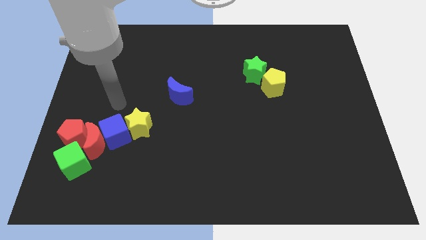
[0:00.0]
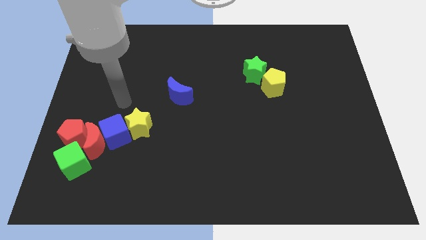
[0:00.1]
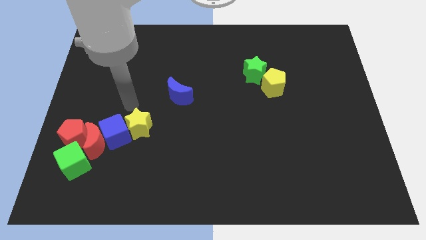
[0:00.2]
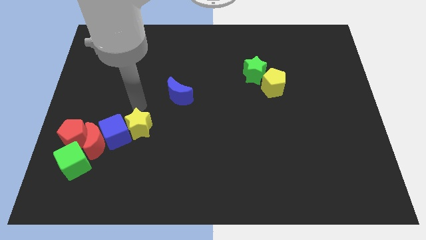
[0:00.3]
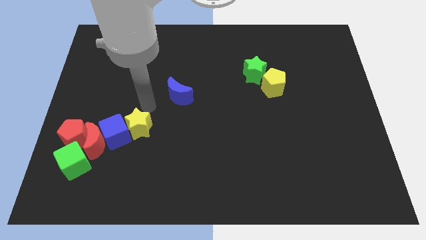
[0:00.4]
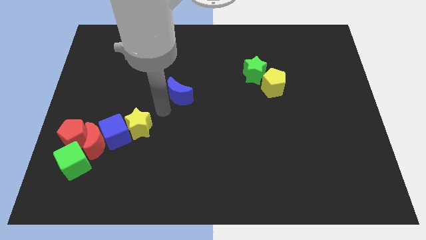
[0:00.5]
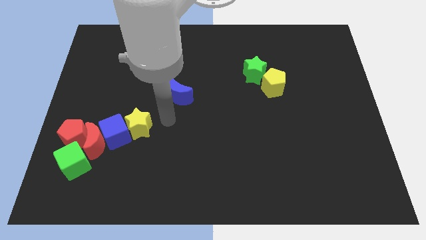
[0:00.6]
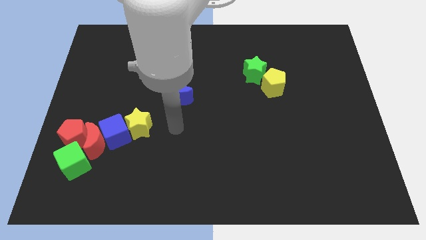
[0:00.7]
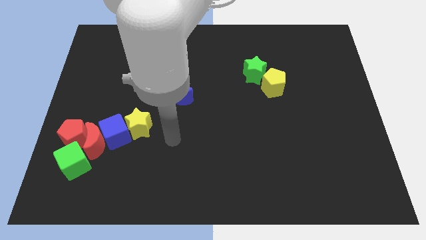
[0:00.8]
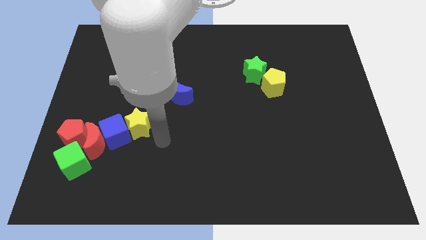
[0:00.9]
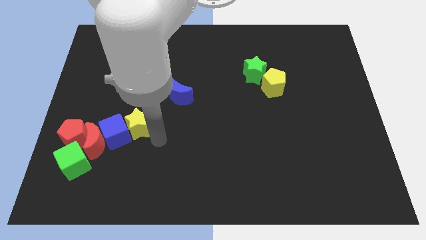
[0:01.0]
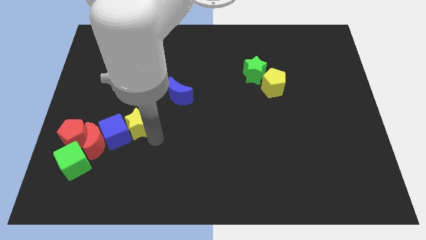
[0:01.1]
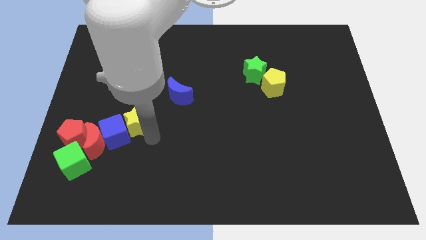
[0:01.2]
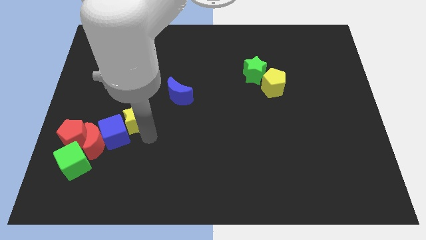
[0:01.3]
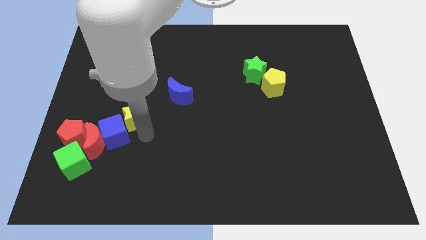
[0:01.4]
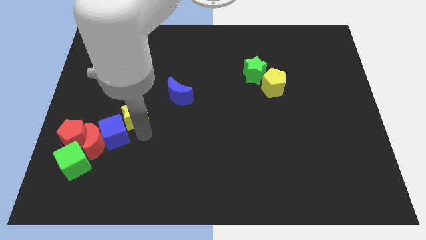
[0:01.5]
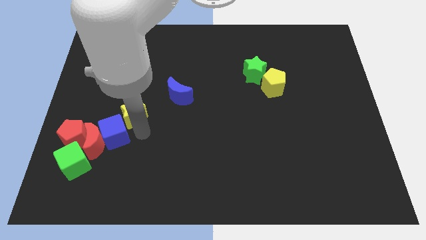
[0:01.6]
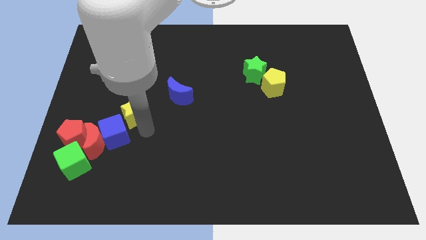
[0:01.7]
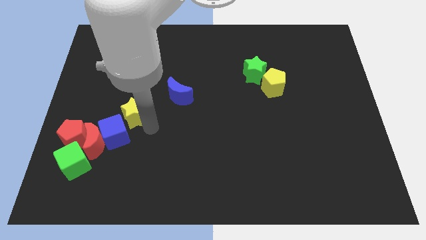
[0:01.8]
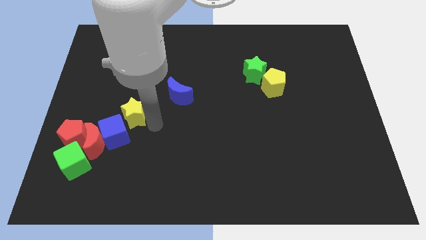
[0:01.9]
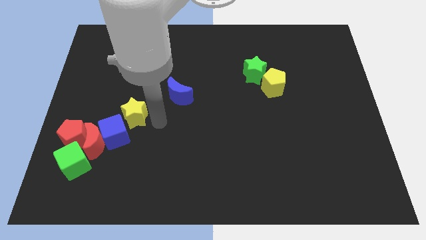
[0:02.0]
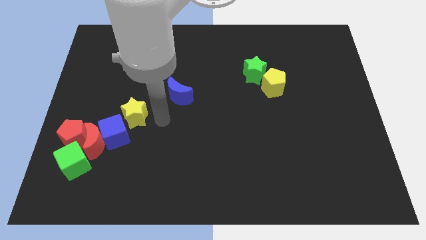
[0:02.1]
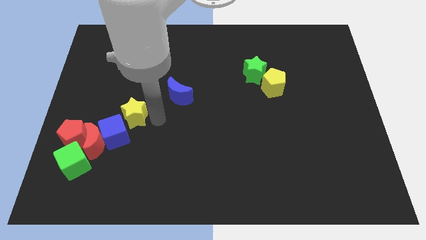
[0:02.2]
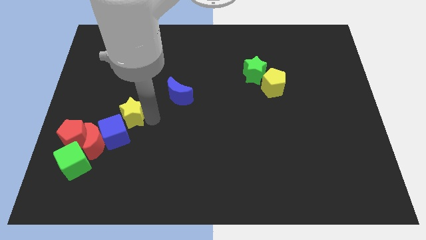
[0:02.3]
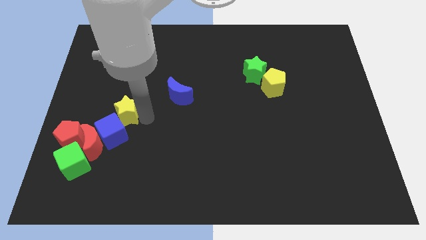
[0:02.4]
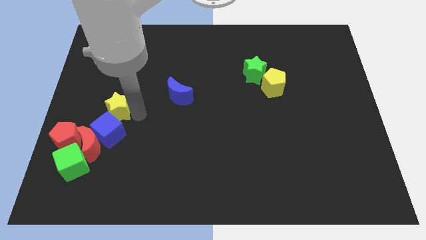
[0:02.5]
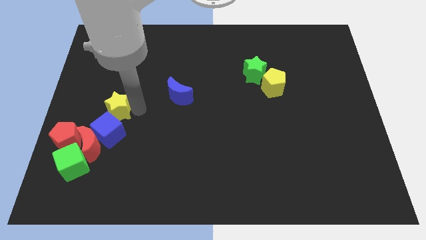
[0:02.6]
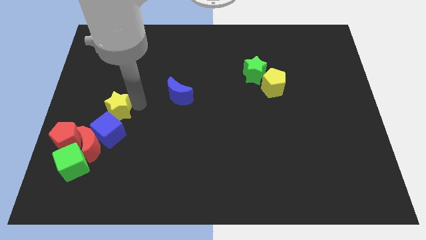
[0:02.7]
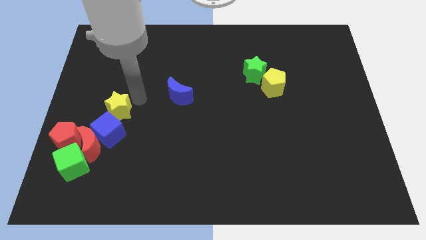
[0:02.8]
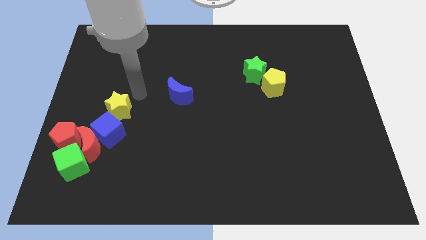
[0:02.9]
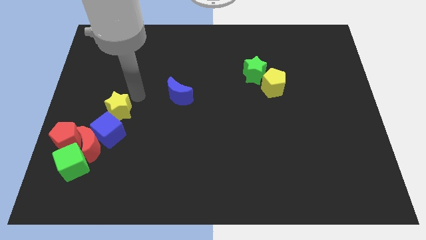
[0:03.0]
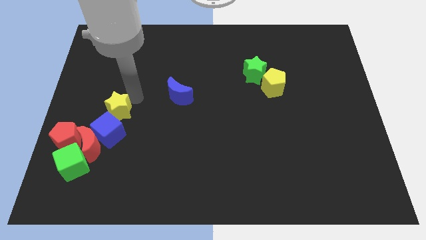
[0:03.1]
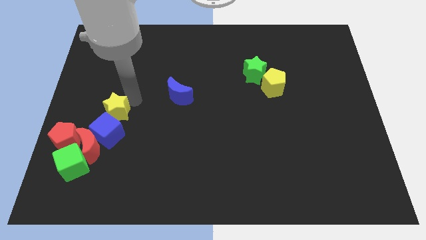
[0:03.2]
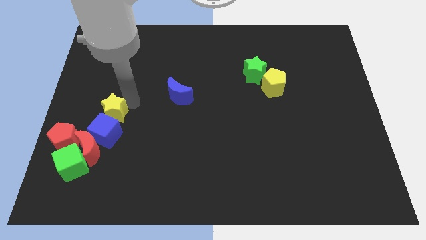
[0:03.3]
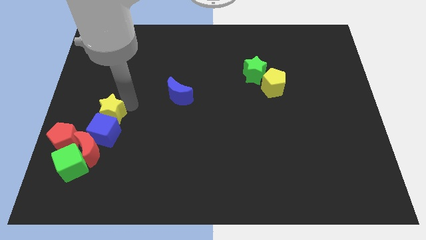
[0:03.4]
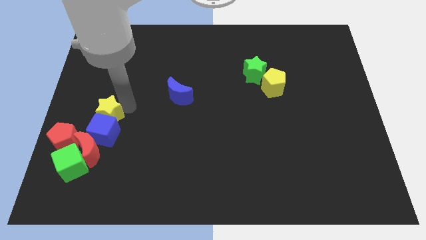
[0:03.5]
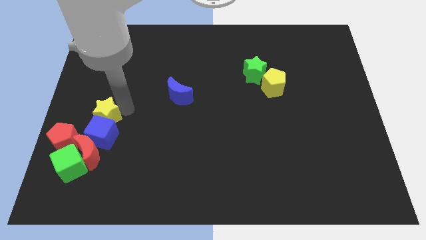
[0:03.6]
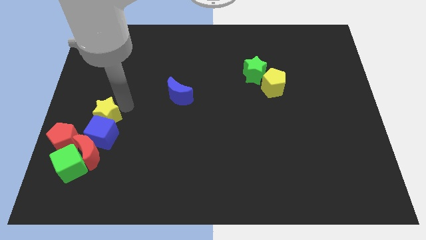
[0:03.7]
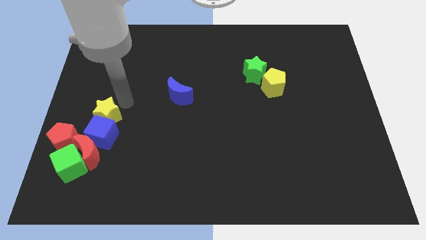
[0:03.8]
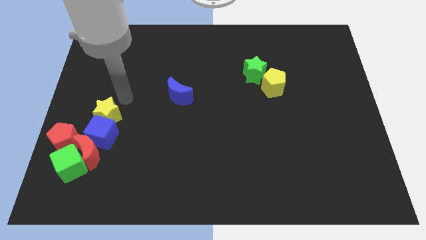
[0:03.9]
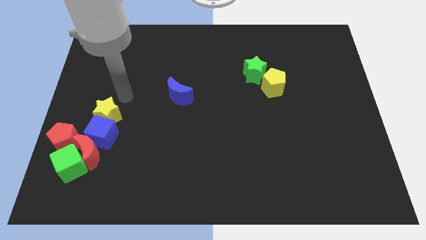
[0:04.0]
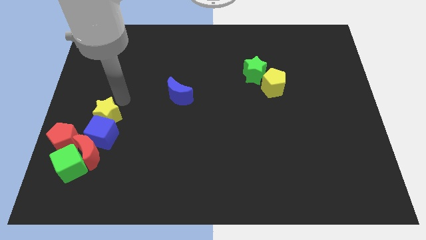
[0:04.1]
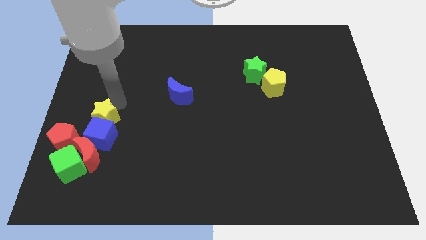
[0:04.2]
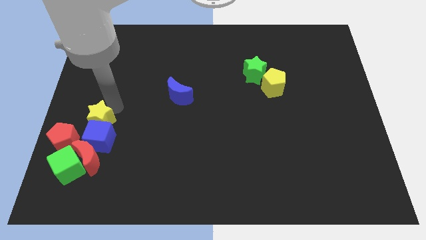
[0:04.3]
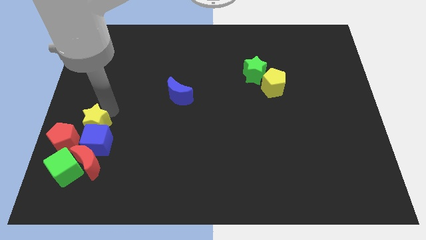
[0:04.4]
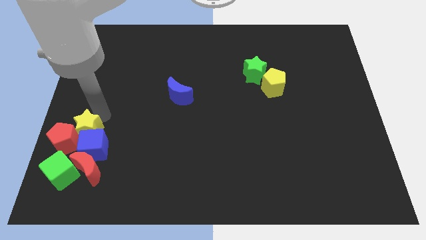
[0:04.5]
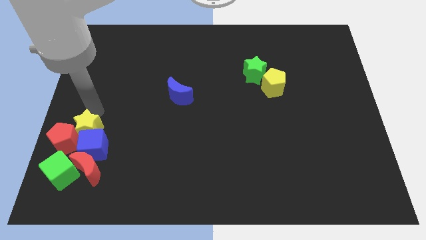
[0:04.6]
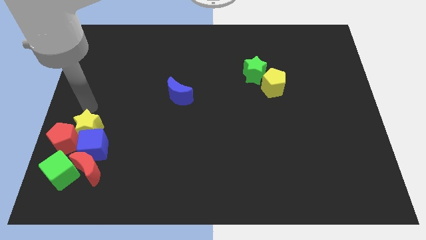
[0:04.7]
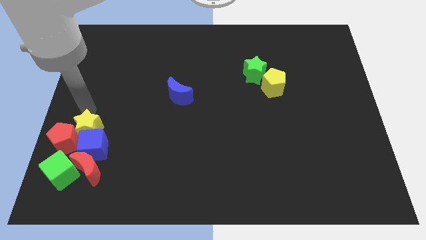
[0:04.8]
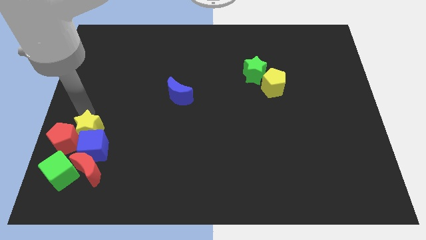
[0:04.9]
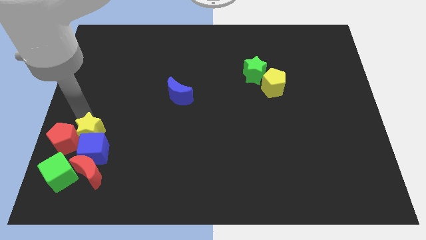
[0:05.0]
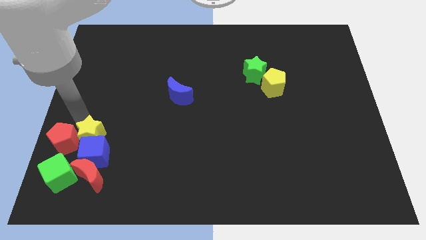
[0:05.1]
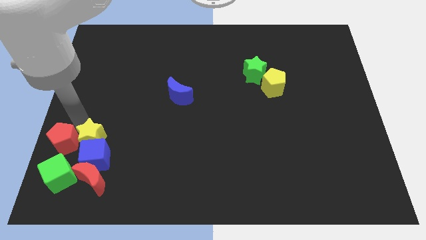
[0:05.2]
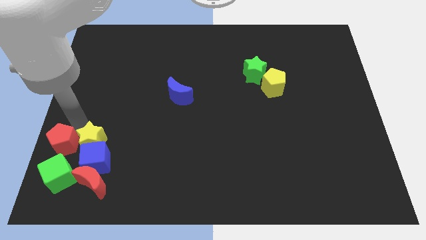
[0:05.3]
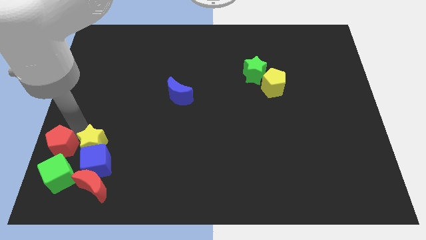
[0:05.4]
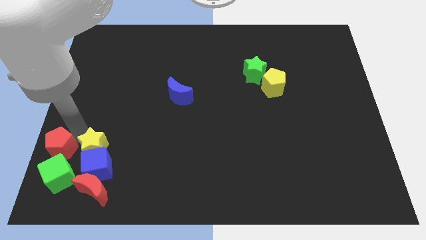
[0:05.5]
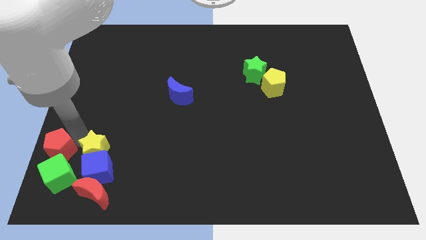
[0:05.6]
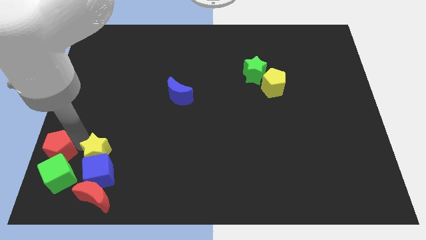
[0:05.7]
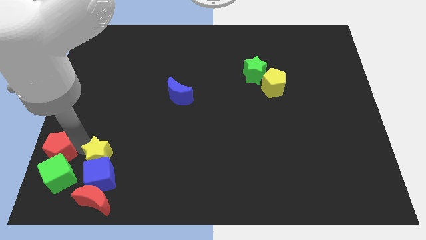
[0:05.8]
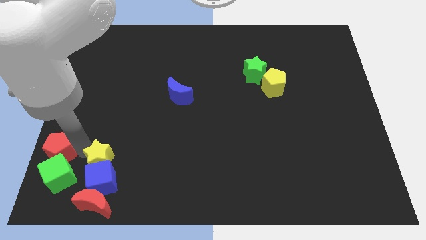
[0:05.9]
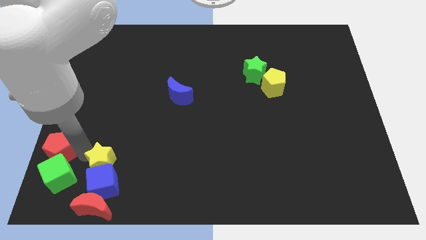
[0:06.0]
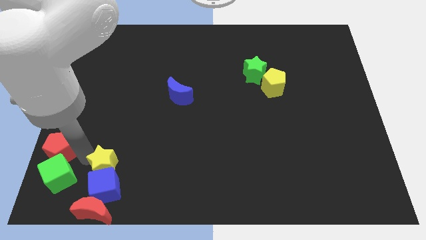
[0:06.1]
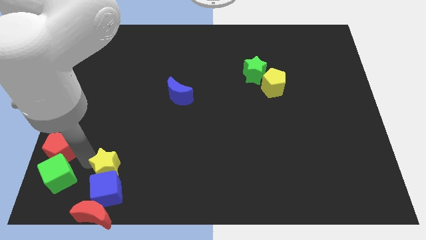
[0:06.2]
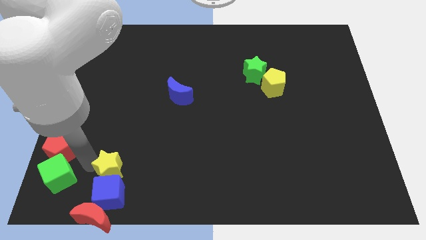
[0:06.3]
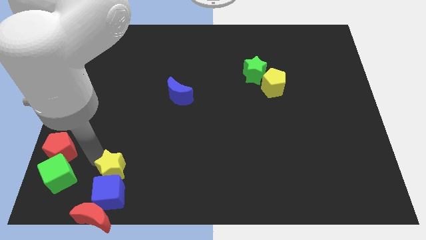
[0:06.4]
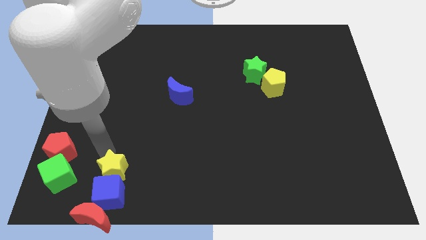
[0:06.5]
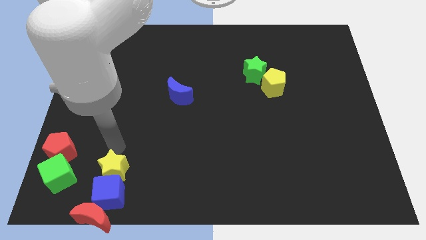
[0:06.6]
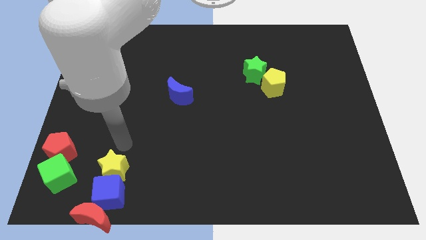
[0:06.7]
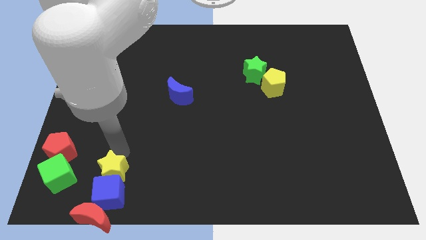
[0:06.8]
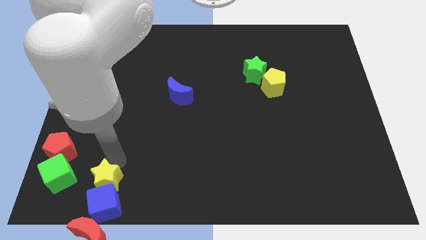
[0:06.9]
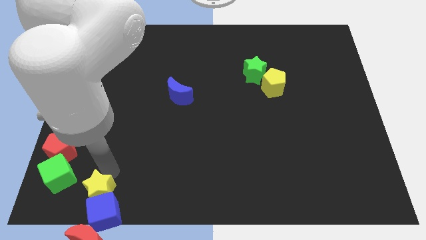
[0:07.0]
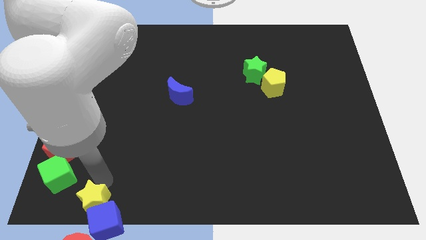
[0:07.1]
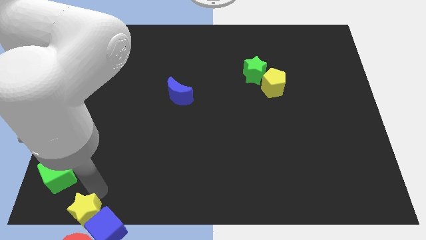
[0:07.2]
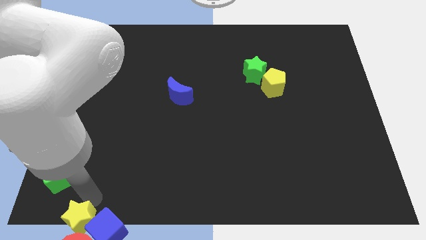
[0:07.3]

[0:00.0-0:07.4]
push the yellow star close to the red moon
